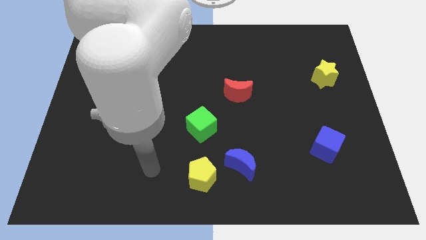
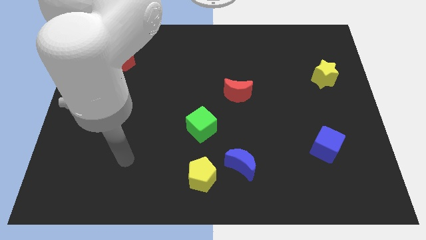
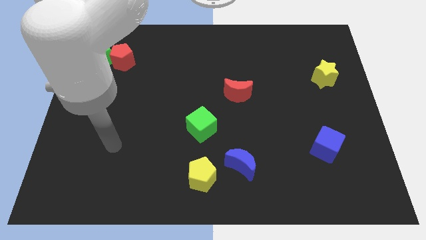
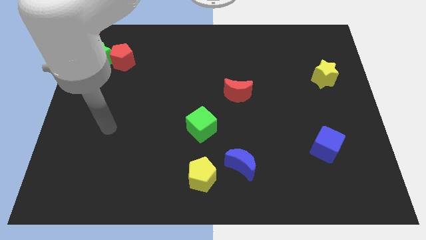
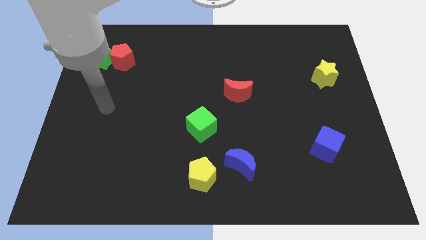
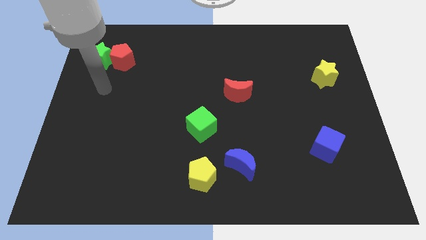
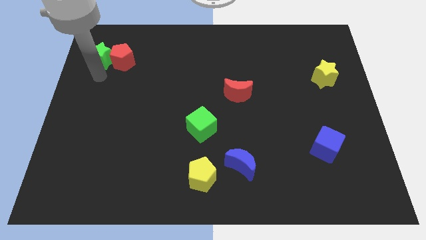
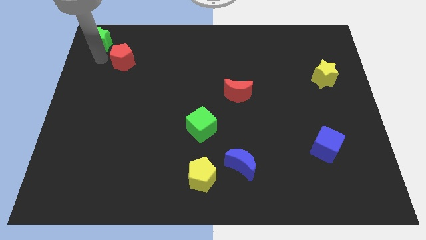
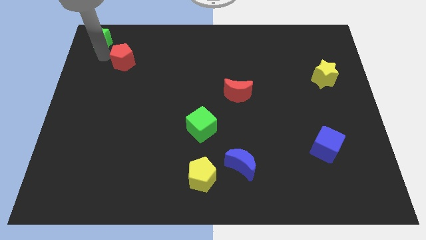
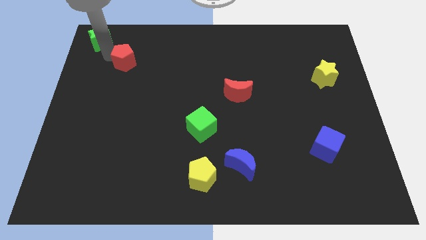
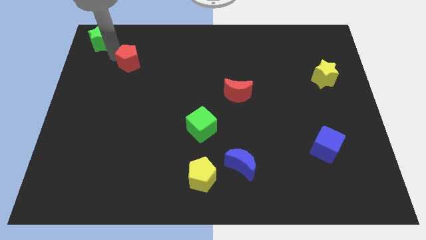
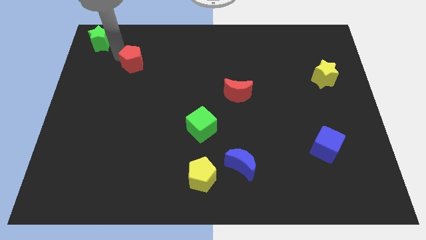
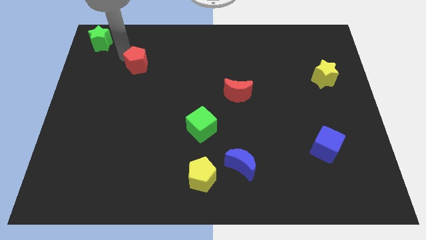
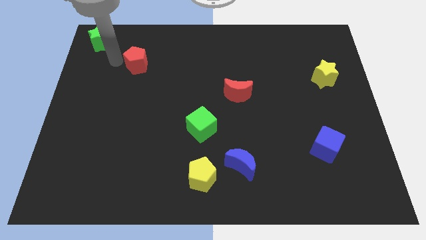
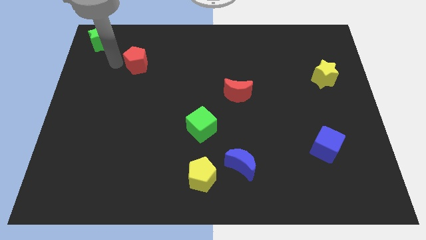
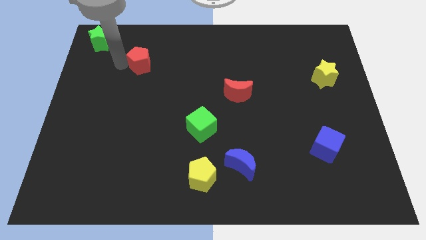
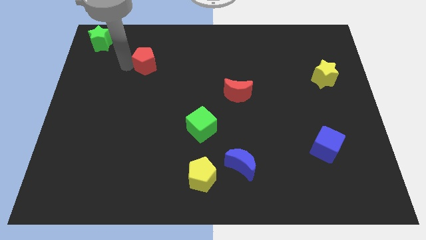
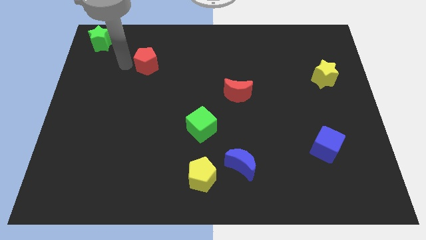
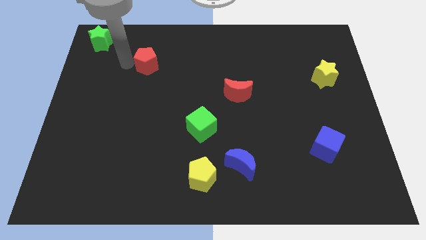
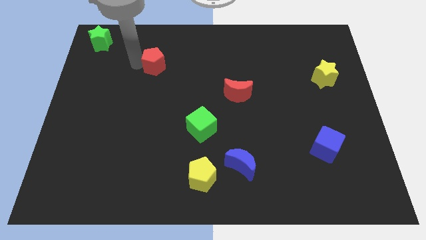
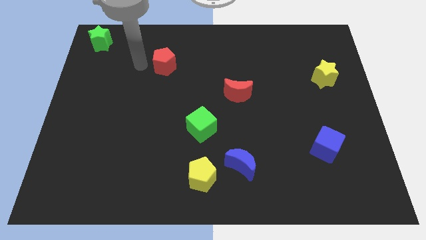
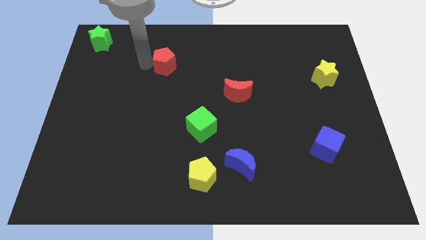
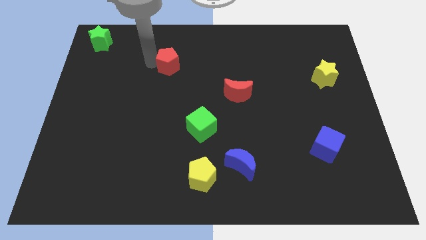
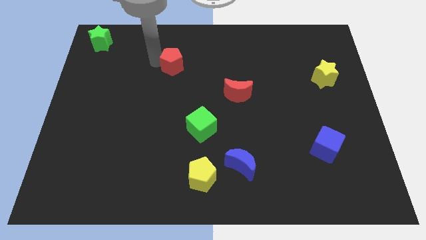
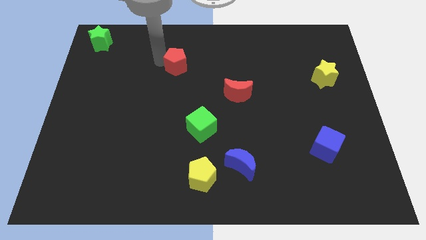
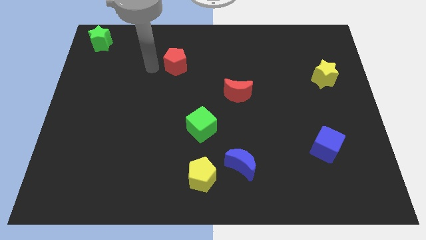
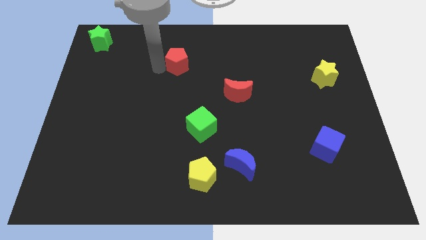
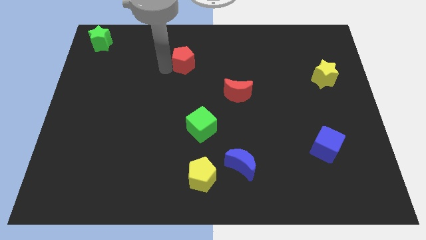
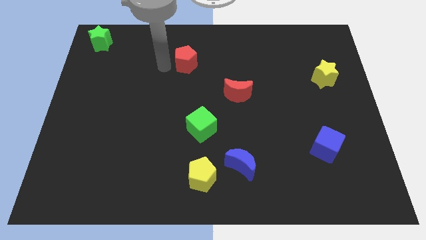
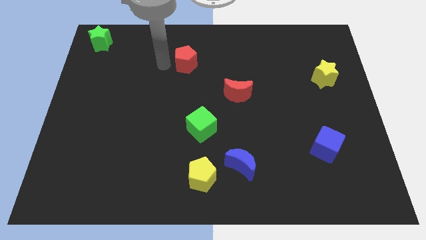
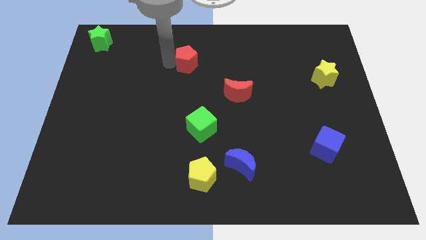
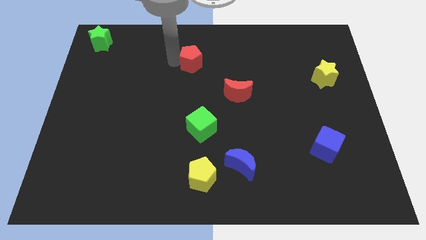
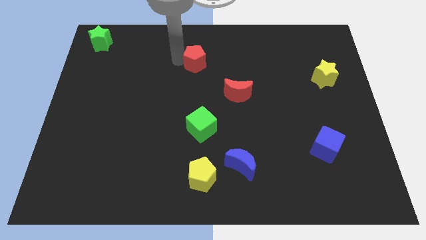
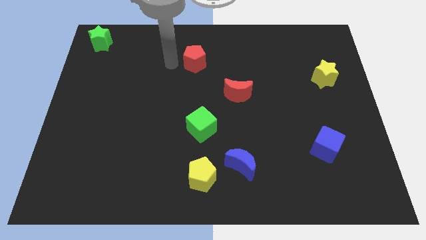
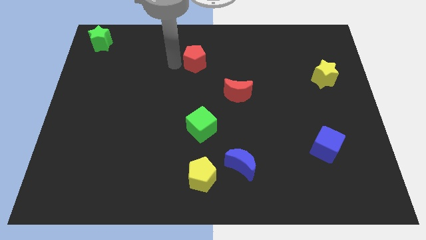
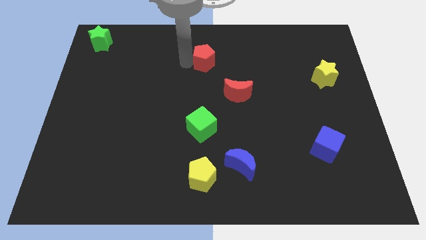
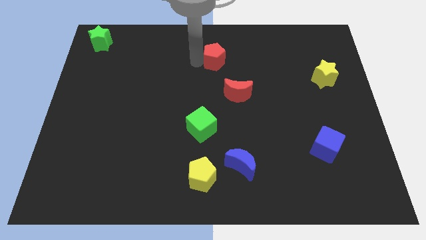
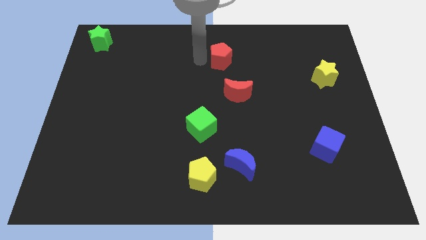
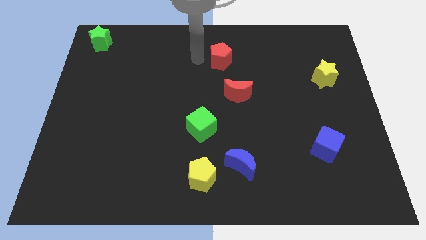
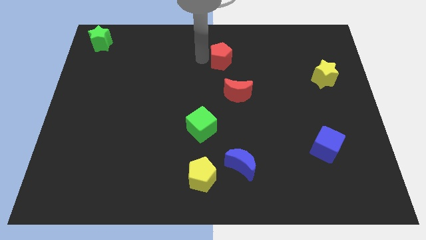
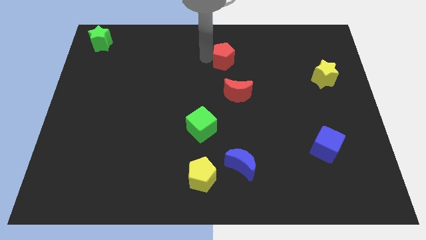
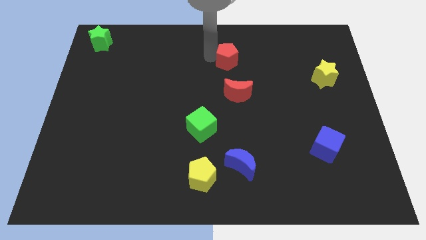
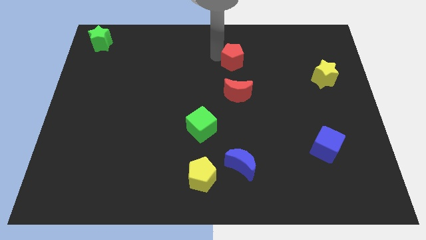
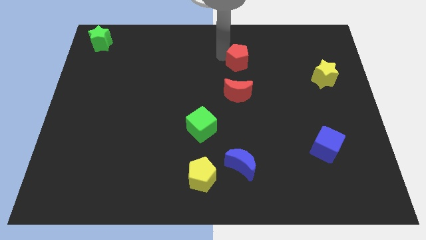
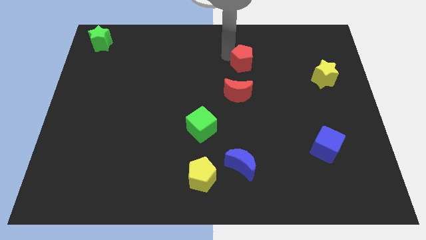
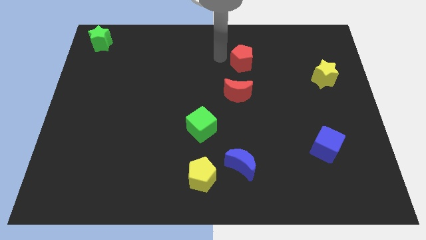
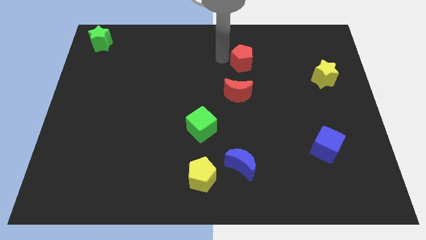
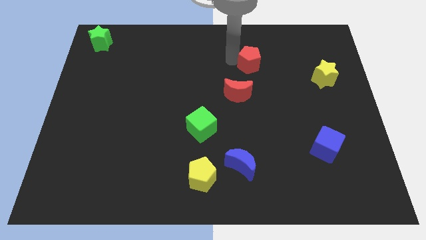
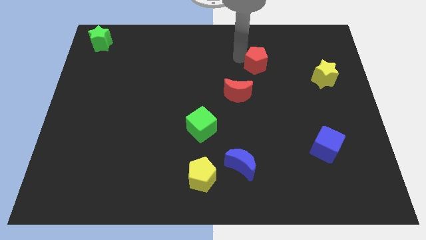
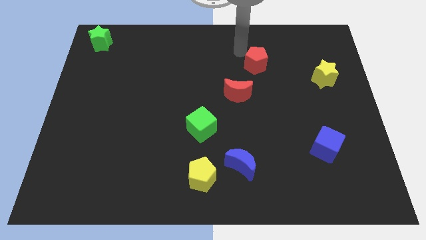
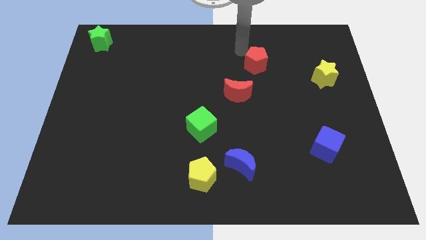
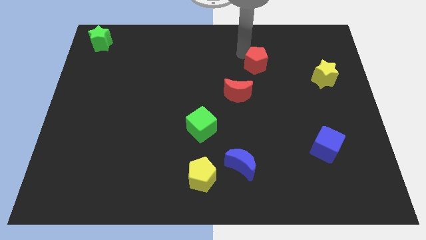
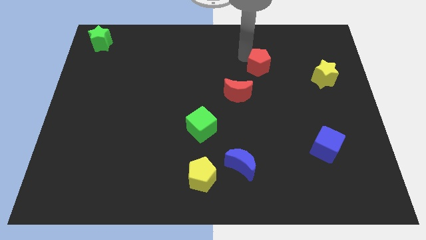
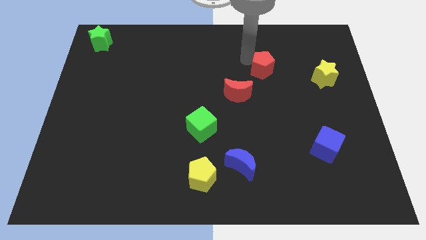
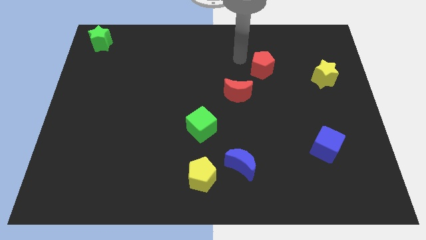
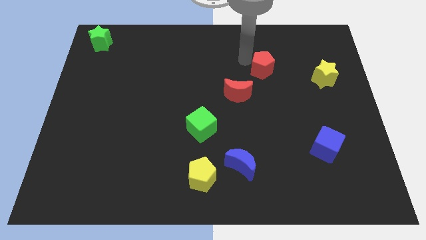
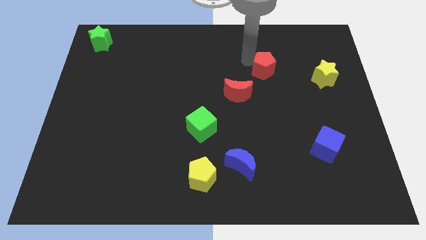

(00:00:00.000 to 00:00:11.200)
slide the red pentagon to the left of the yellow star

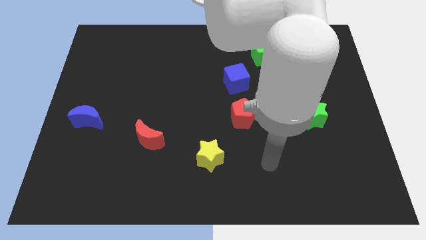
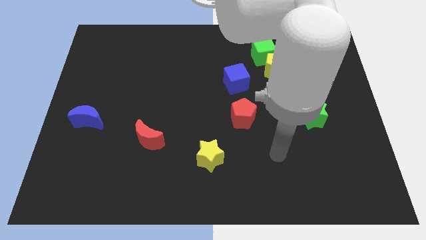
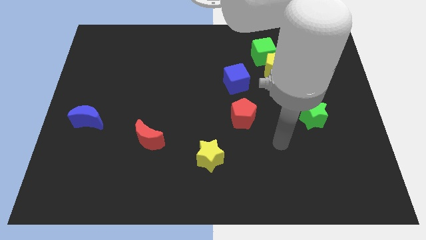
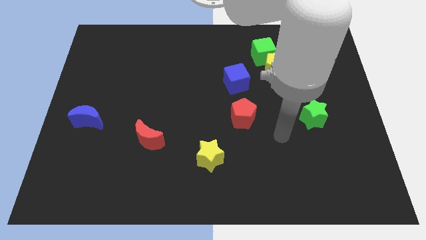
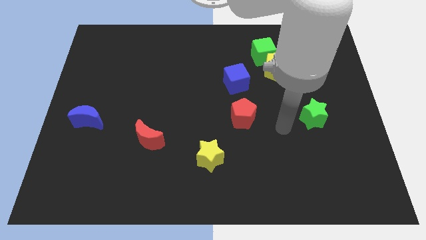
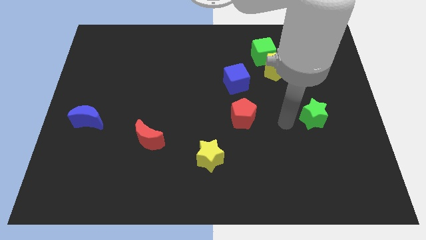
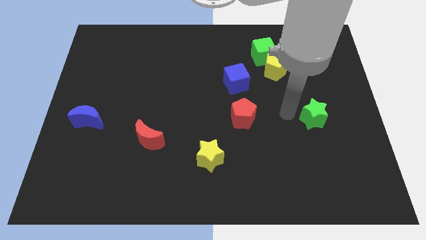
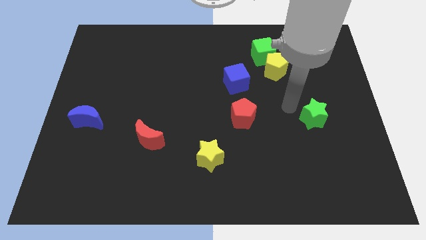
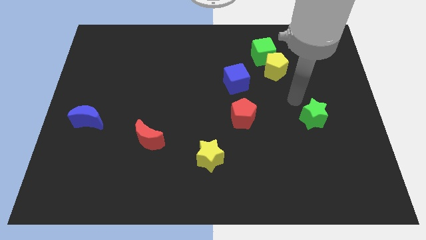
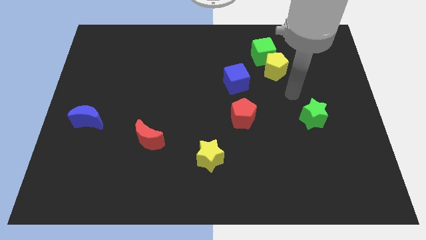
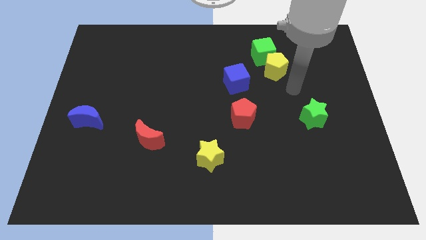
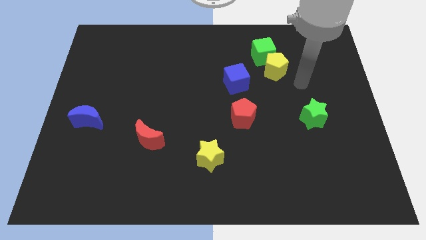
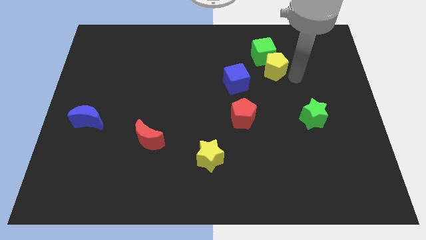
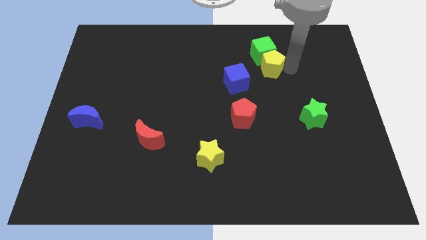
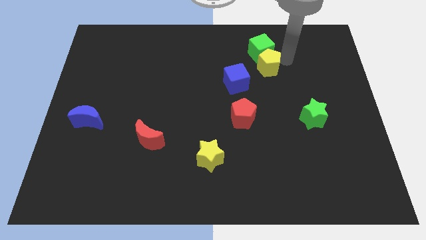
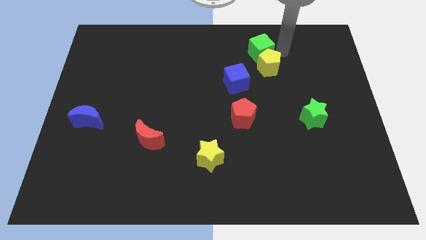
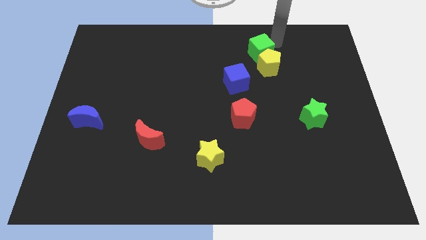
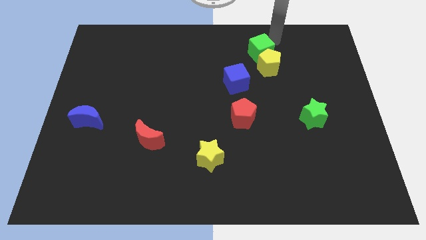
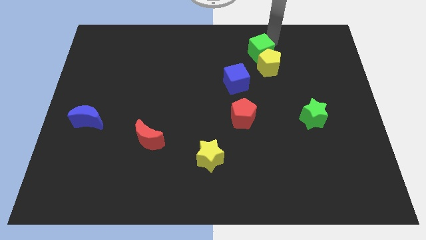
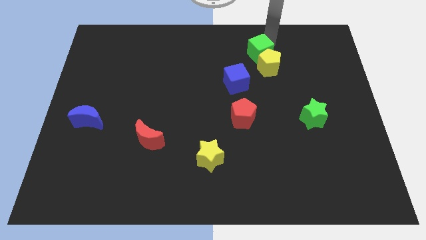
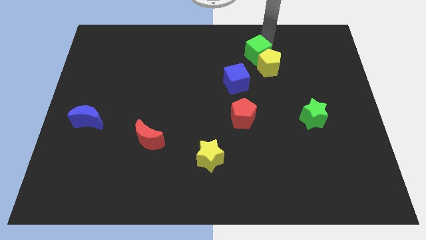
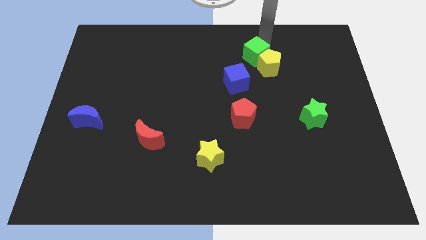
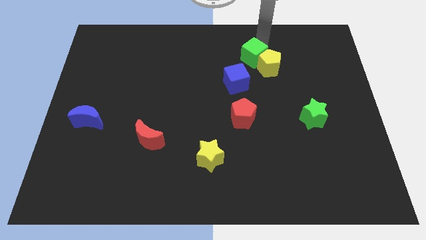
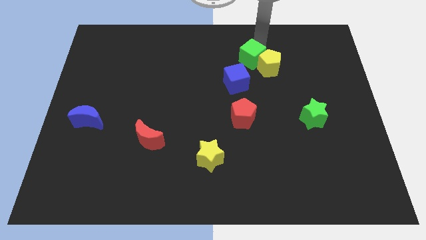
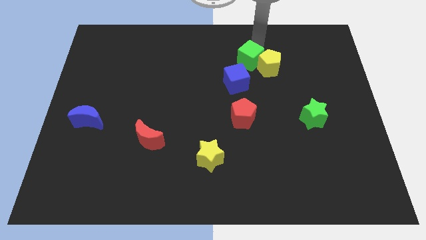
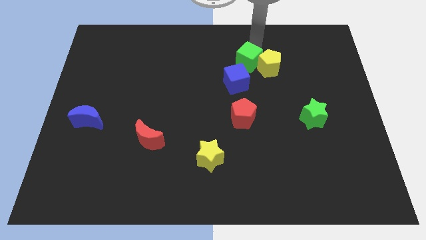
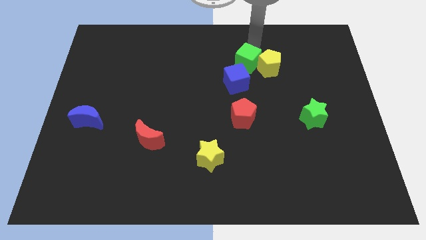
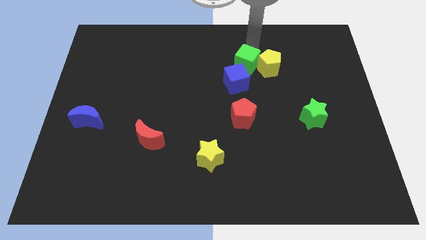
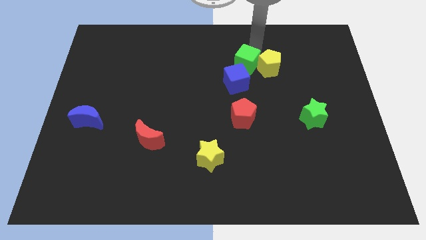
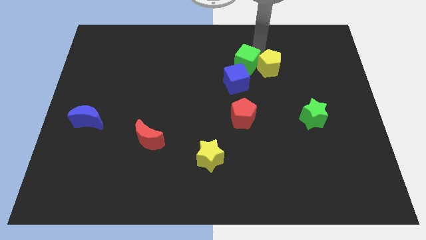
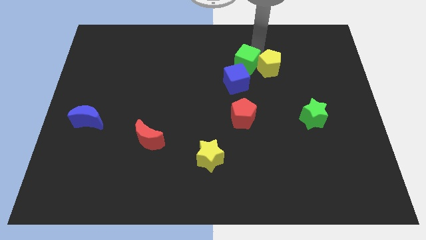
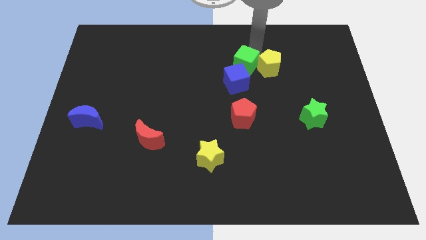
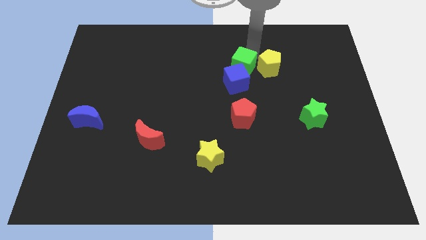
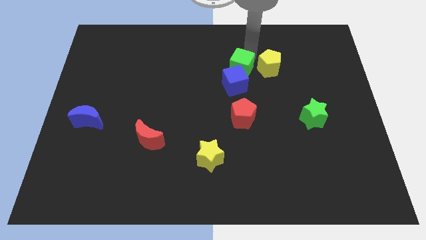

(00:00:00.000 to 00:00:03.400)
push the green cube above the red pentagon
